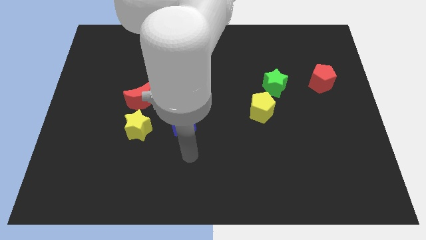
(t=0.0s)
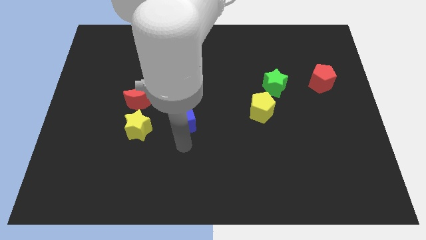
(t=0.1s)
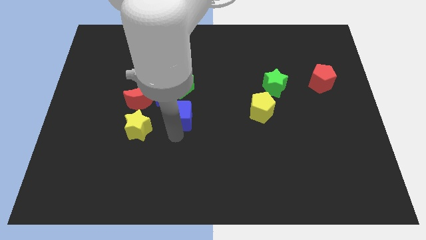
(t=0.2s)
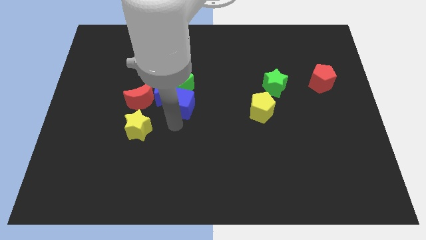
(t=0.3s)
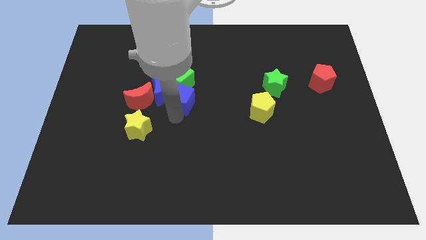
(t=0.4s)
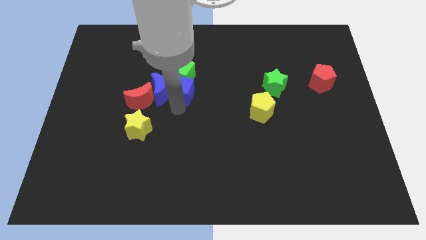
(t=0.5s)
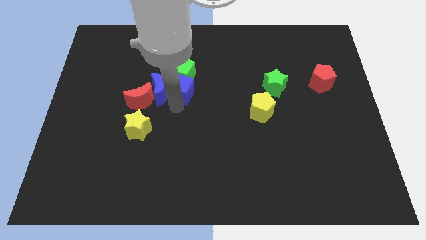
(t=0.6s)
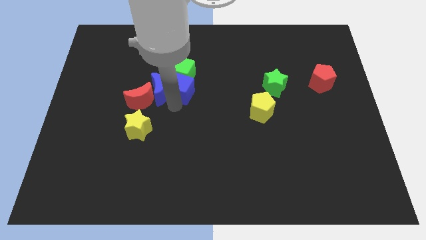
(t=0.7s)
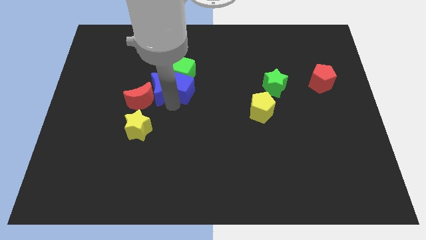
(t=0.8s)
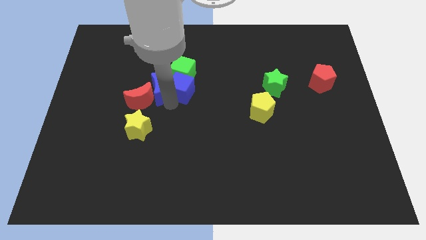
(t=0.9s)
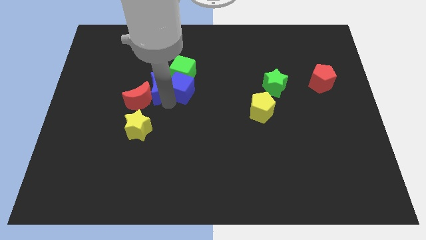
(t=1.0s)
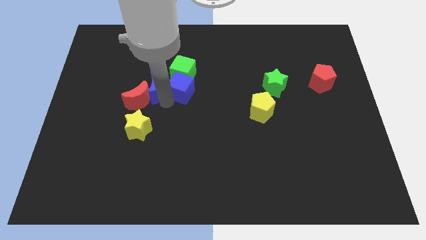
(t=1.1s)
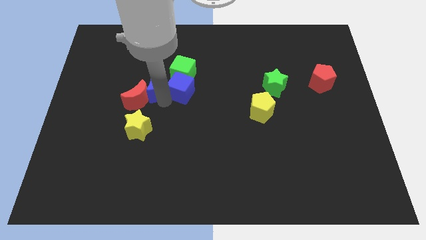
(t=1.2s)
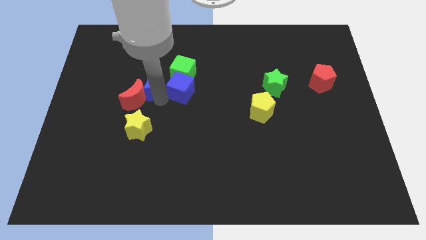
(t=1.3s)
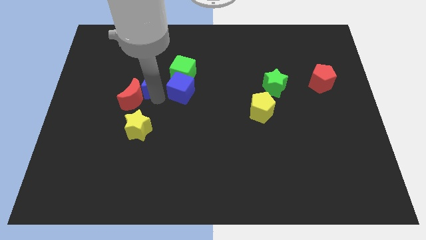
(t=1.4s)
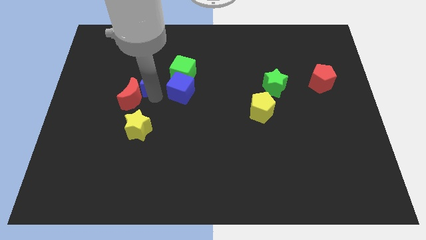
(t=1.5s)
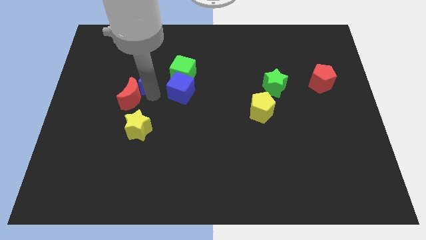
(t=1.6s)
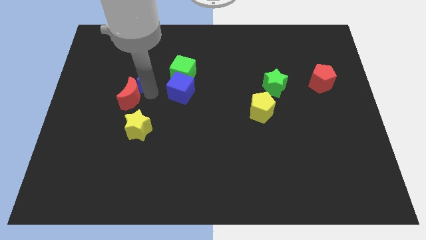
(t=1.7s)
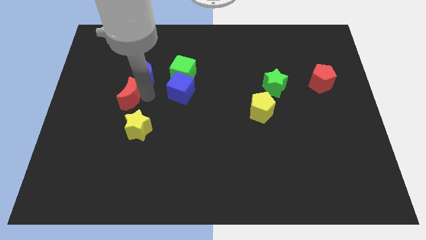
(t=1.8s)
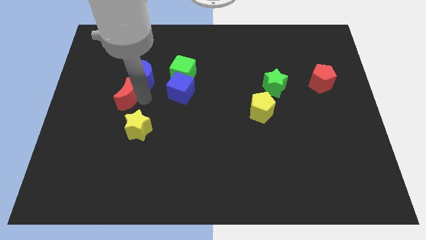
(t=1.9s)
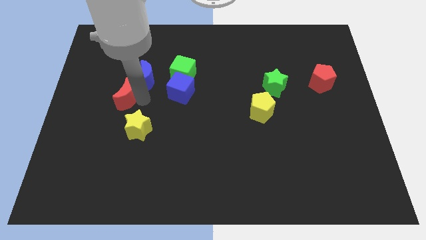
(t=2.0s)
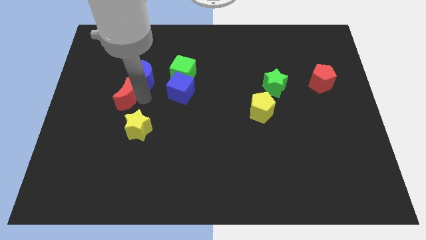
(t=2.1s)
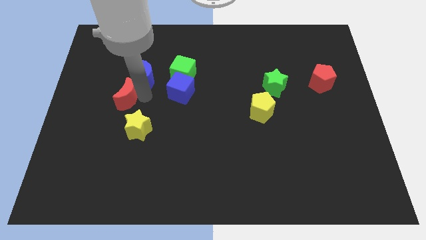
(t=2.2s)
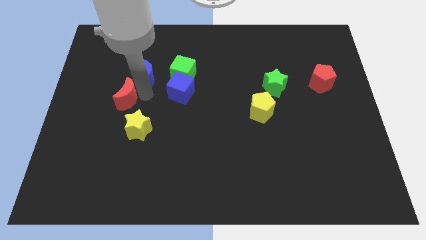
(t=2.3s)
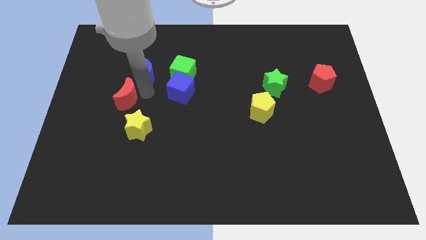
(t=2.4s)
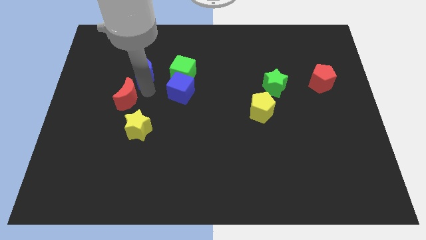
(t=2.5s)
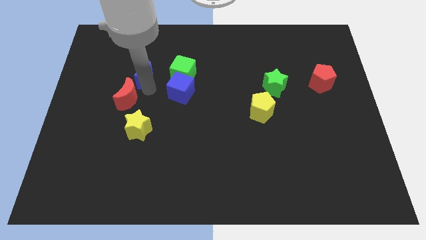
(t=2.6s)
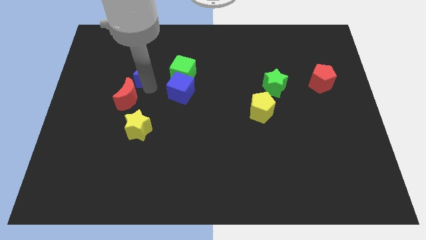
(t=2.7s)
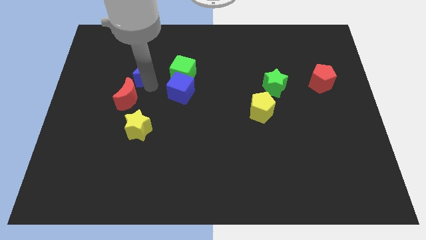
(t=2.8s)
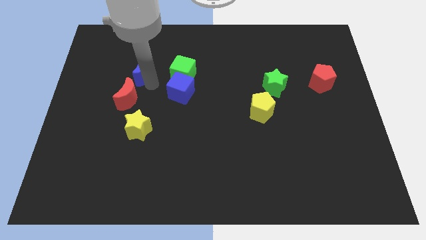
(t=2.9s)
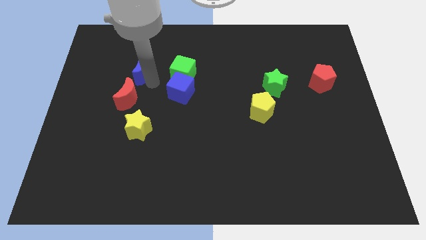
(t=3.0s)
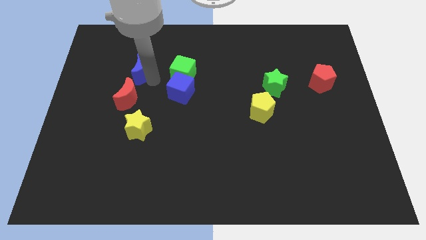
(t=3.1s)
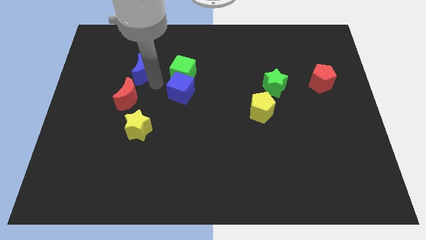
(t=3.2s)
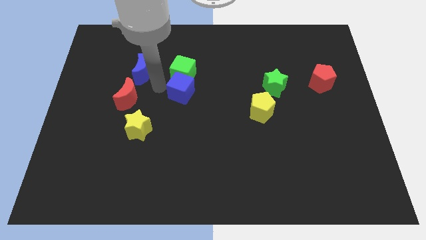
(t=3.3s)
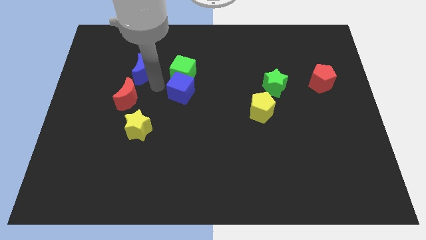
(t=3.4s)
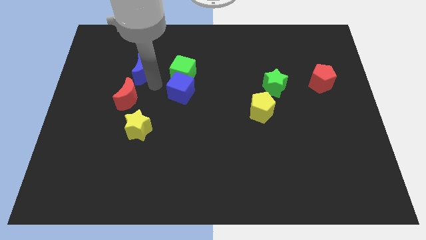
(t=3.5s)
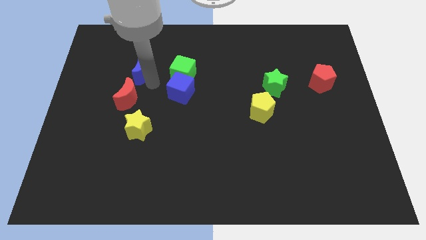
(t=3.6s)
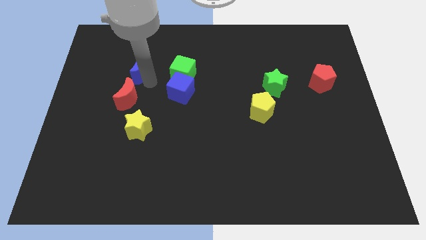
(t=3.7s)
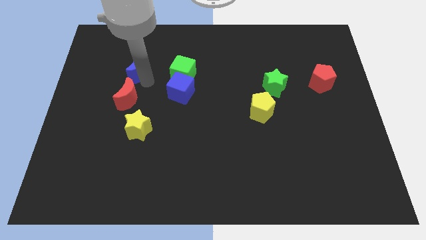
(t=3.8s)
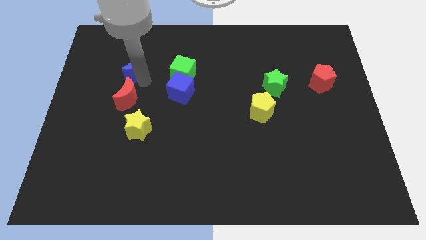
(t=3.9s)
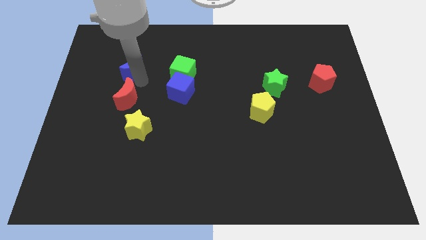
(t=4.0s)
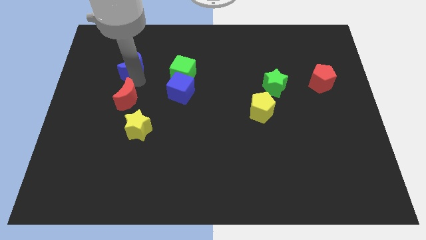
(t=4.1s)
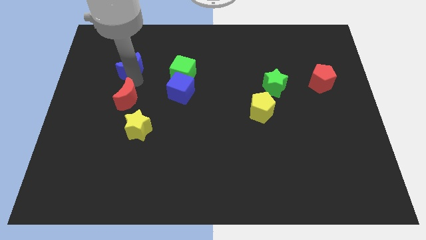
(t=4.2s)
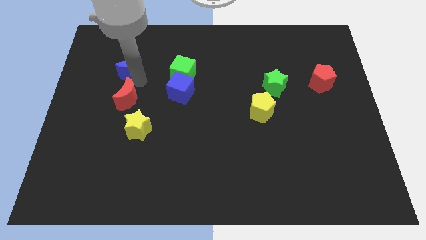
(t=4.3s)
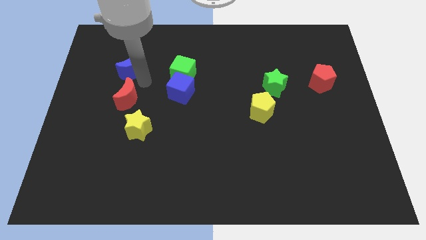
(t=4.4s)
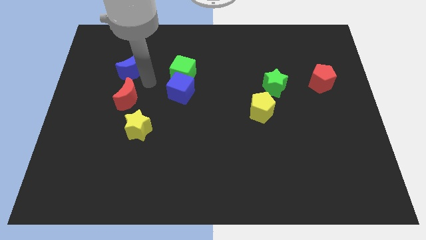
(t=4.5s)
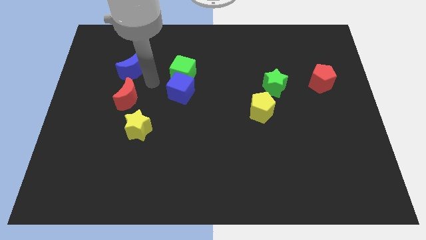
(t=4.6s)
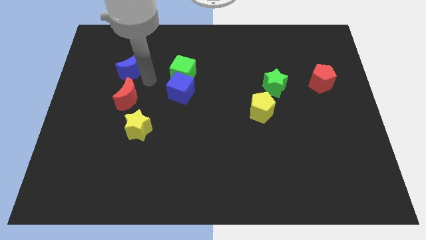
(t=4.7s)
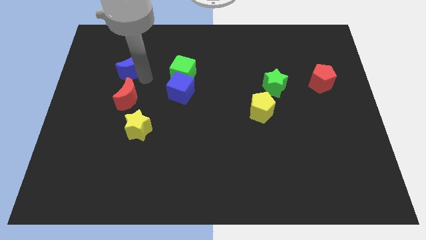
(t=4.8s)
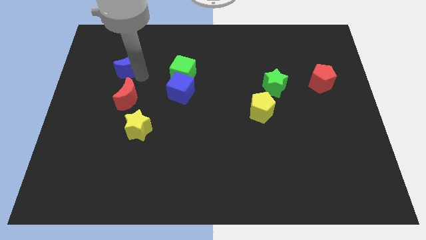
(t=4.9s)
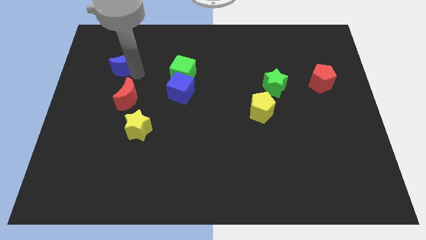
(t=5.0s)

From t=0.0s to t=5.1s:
pull the blue moon apart from the green cube and red moon

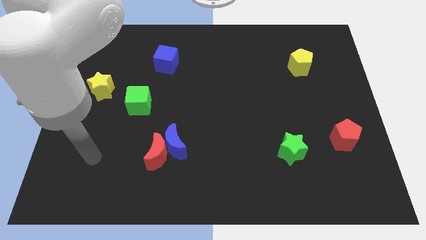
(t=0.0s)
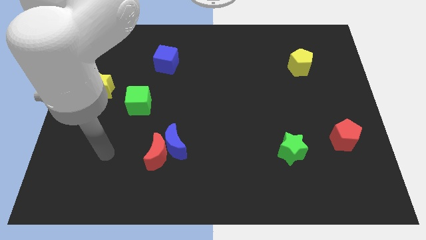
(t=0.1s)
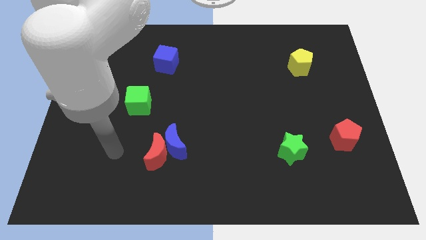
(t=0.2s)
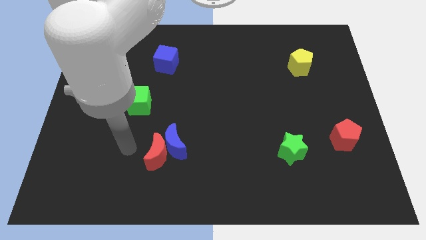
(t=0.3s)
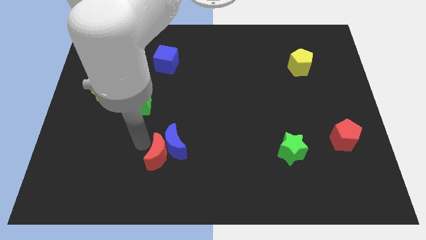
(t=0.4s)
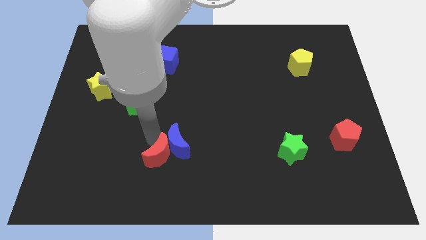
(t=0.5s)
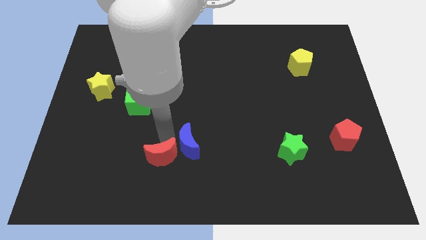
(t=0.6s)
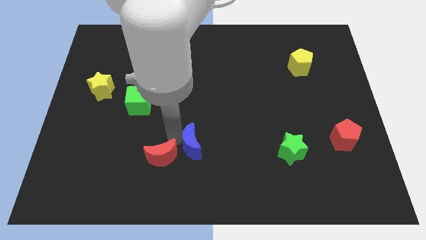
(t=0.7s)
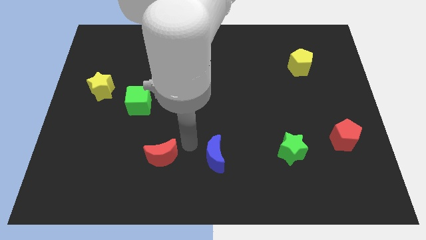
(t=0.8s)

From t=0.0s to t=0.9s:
separate the red moon from the blue moon

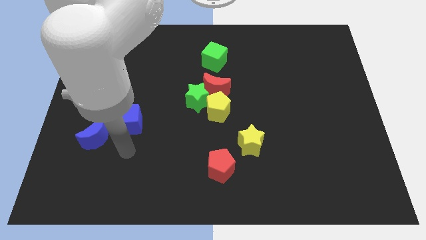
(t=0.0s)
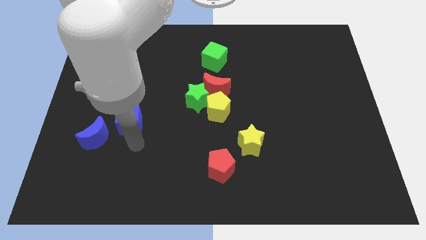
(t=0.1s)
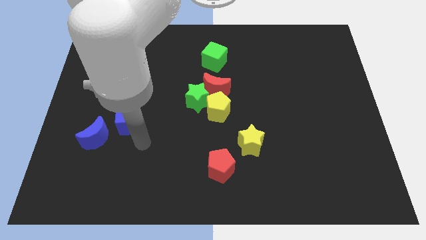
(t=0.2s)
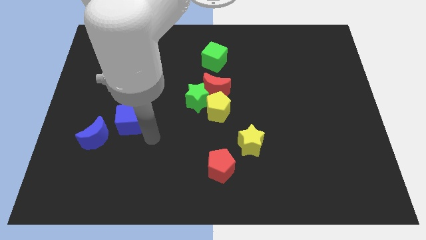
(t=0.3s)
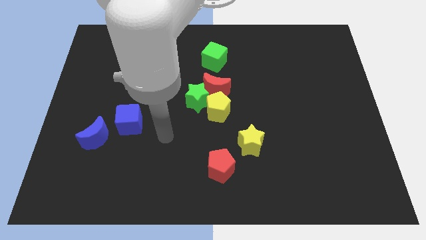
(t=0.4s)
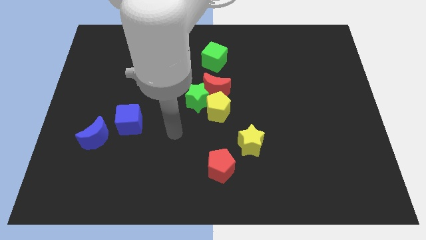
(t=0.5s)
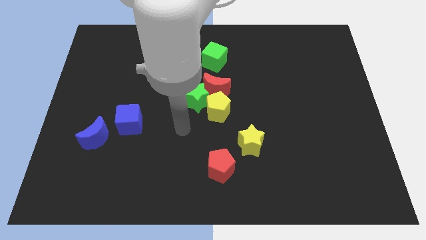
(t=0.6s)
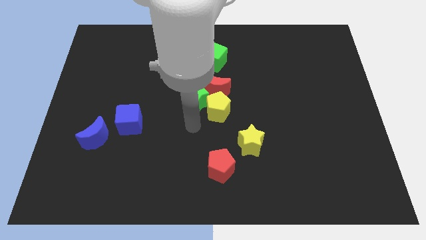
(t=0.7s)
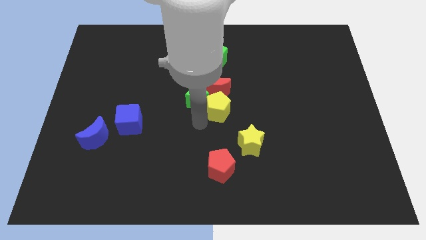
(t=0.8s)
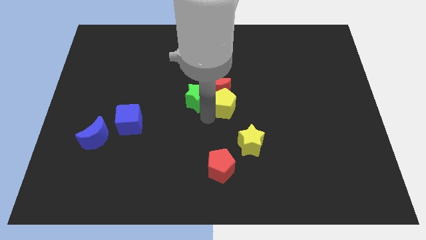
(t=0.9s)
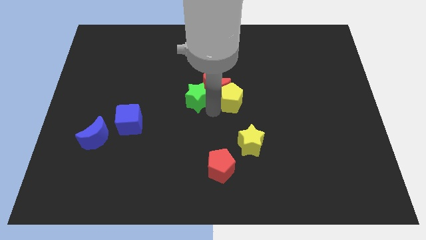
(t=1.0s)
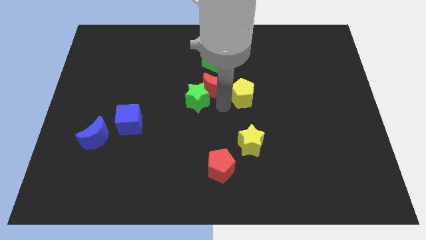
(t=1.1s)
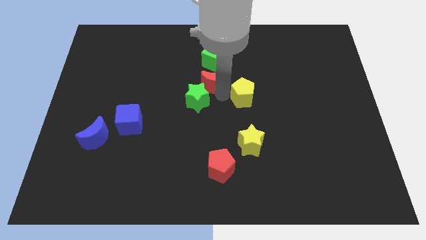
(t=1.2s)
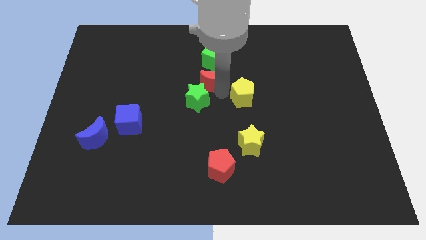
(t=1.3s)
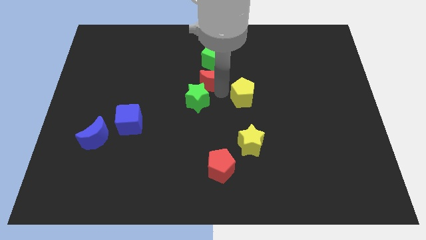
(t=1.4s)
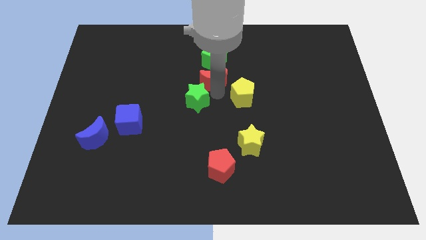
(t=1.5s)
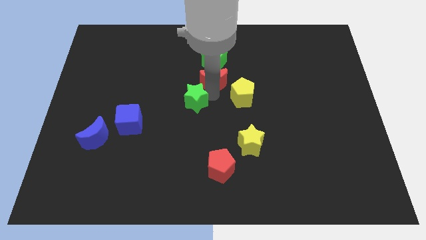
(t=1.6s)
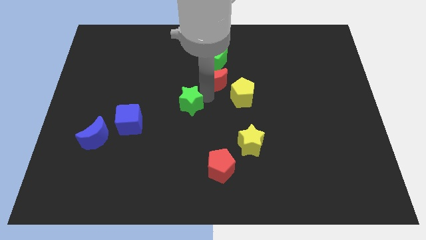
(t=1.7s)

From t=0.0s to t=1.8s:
move the green star away from the red moon and yellow pentagon

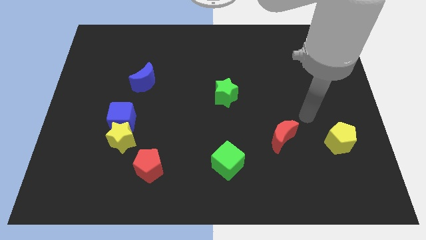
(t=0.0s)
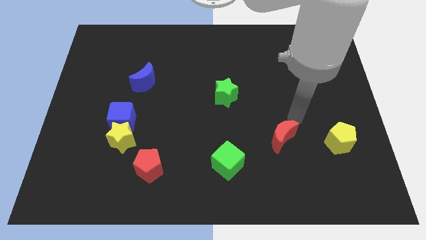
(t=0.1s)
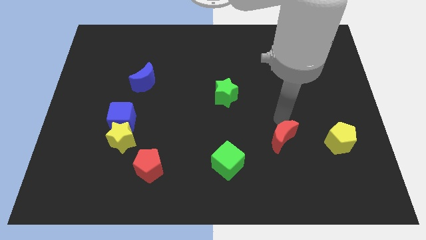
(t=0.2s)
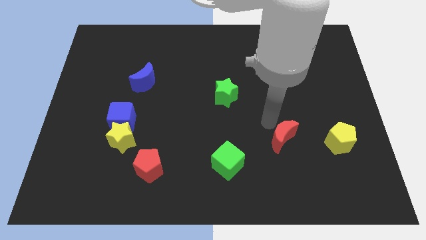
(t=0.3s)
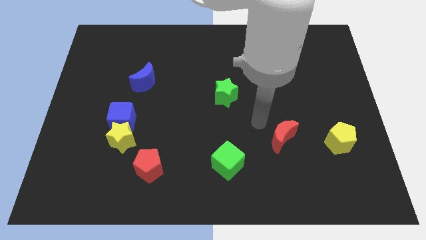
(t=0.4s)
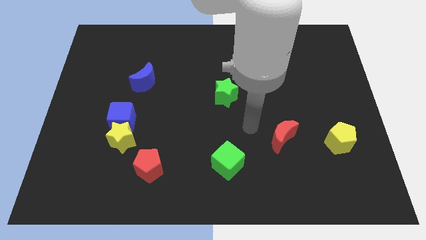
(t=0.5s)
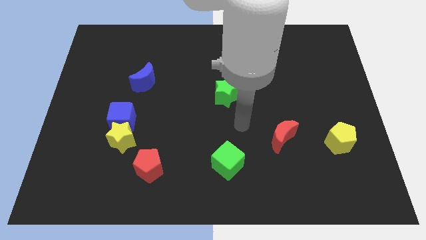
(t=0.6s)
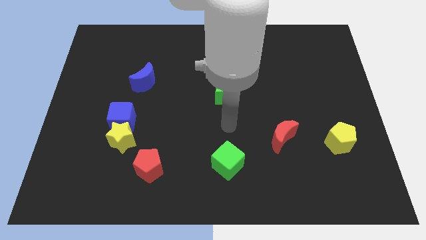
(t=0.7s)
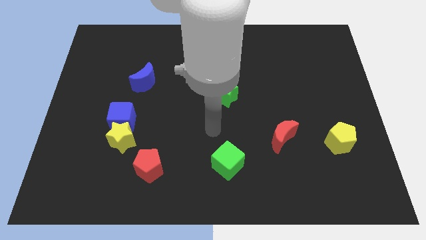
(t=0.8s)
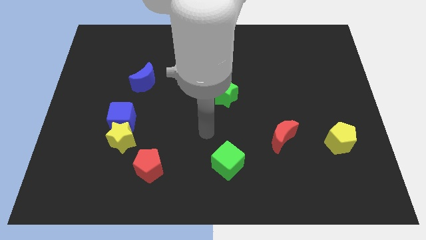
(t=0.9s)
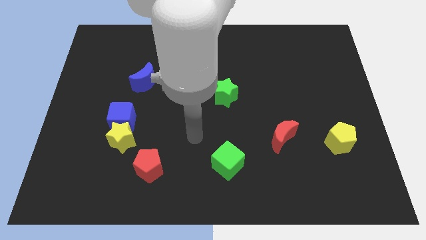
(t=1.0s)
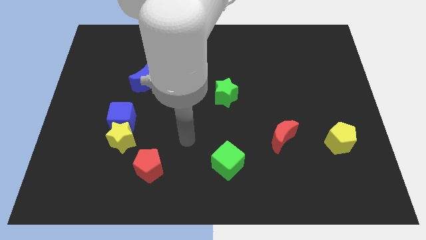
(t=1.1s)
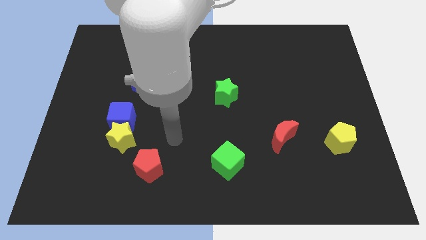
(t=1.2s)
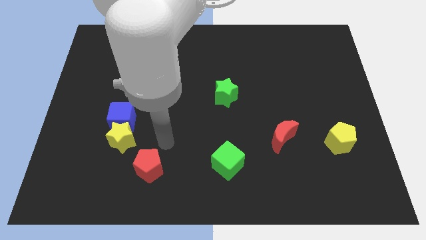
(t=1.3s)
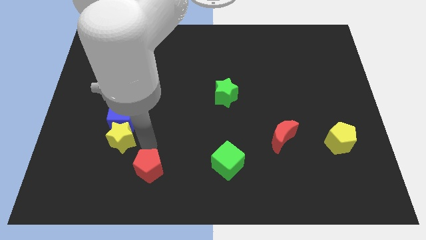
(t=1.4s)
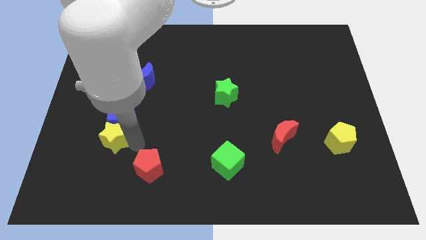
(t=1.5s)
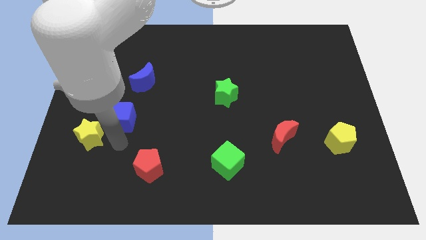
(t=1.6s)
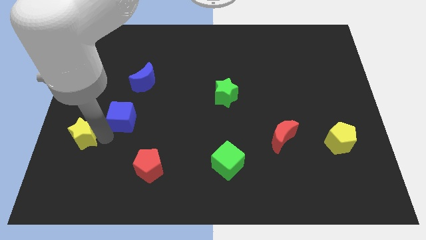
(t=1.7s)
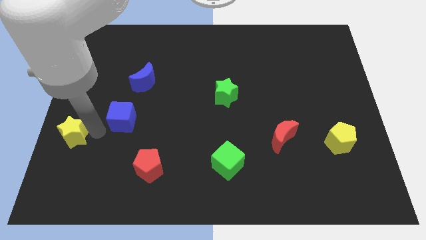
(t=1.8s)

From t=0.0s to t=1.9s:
move the blue cube away from the yellow star
